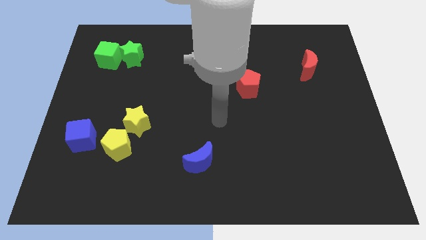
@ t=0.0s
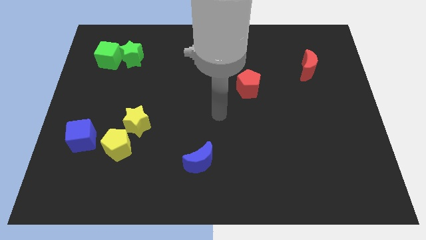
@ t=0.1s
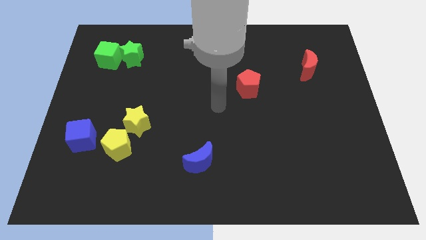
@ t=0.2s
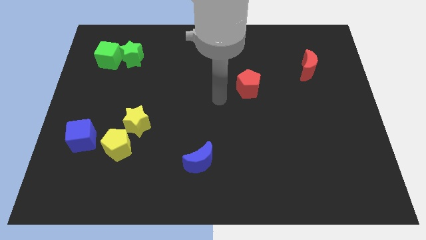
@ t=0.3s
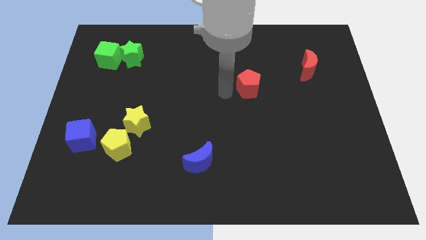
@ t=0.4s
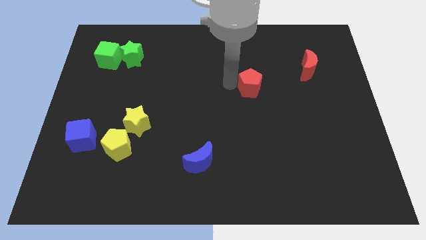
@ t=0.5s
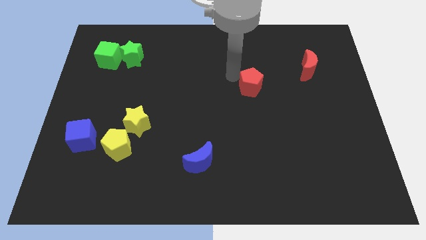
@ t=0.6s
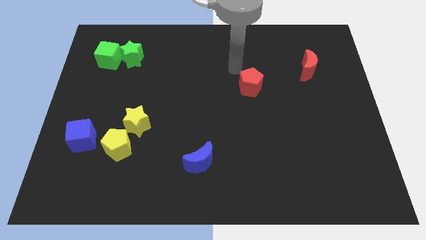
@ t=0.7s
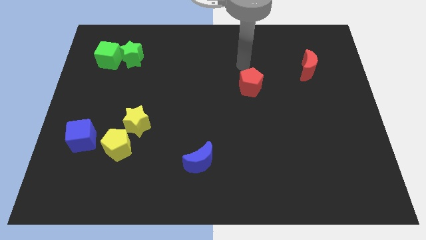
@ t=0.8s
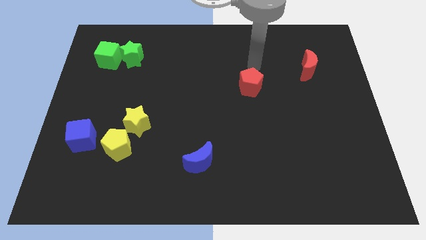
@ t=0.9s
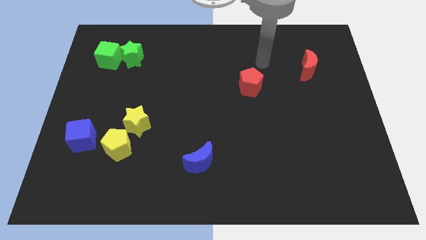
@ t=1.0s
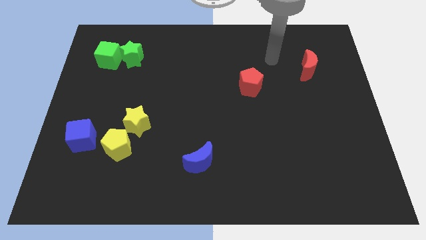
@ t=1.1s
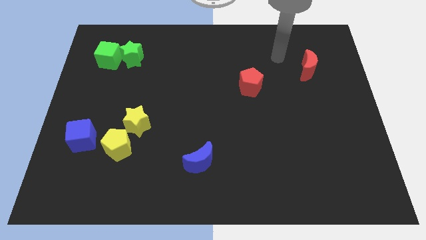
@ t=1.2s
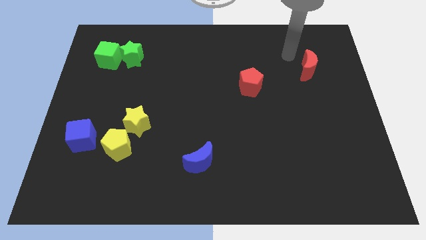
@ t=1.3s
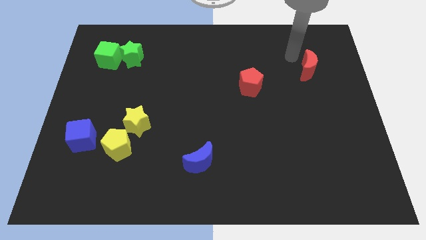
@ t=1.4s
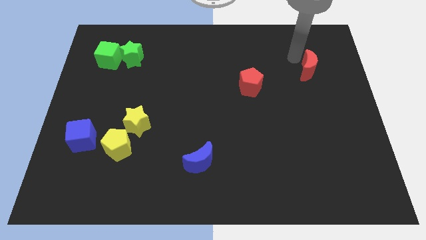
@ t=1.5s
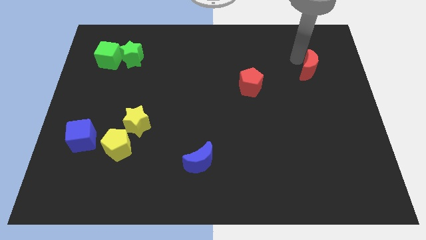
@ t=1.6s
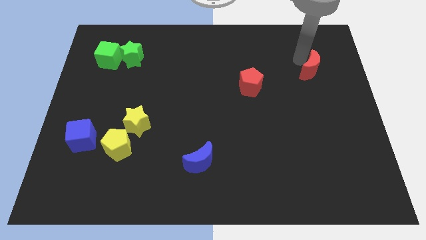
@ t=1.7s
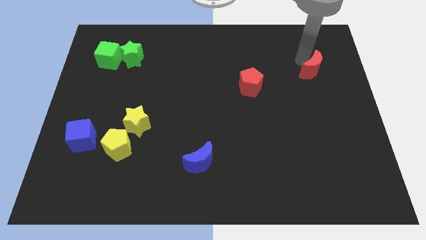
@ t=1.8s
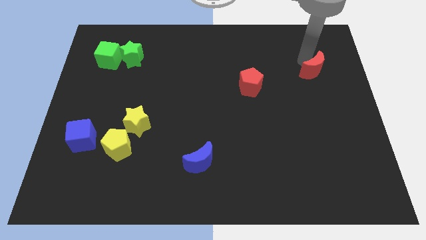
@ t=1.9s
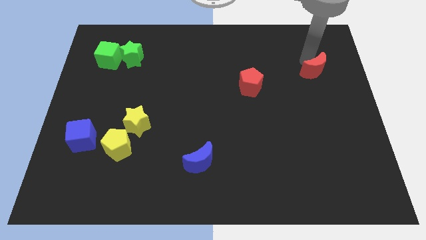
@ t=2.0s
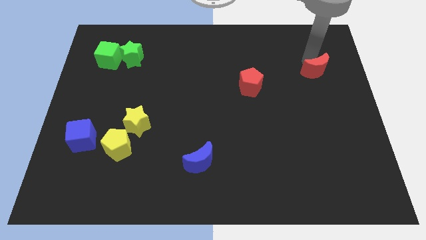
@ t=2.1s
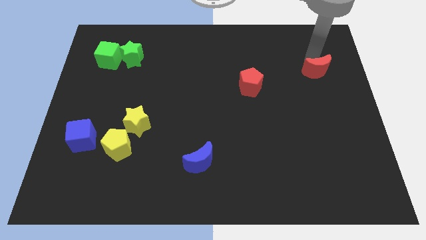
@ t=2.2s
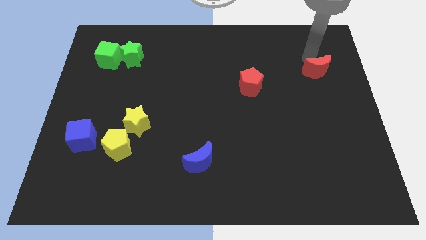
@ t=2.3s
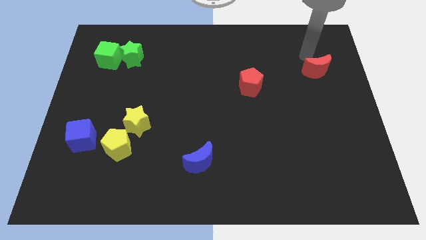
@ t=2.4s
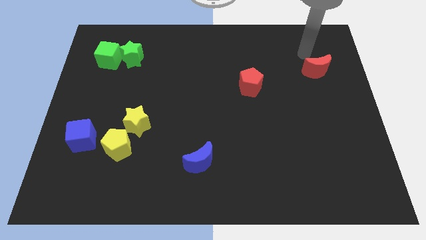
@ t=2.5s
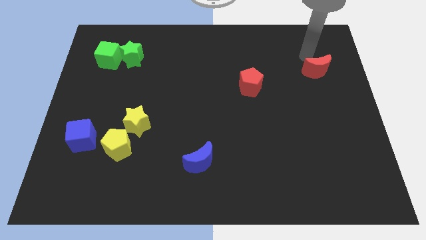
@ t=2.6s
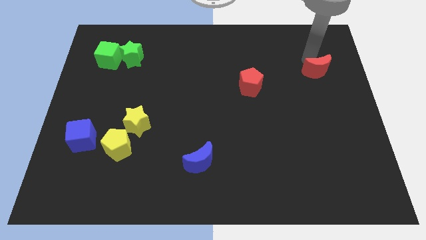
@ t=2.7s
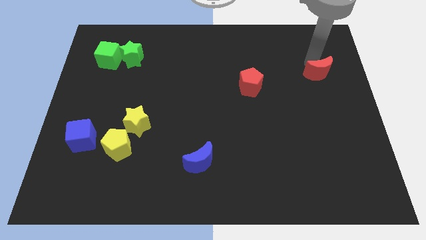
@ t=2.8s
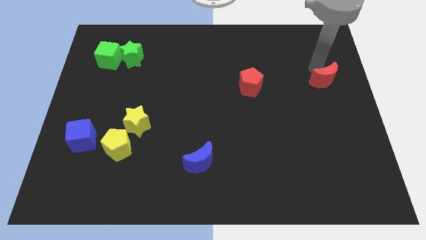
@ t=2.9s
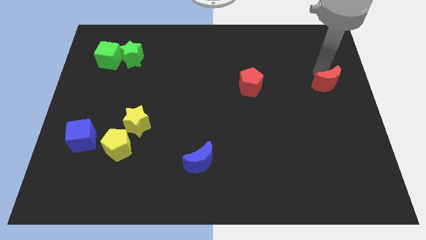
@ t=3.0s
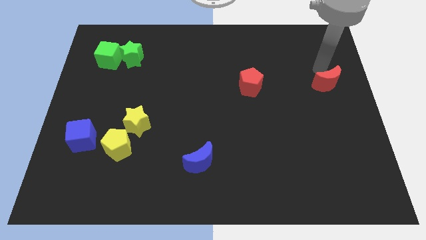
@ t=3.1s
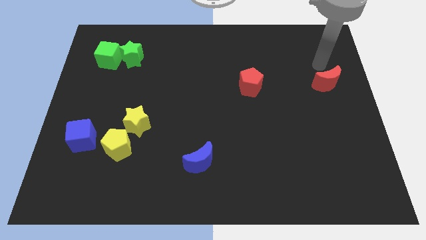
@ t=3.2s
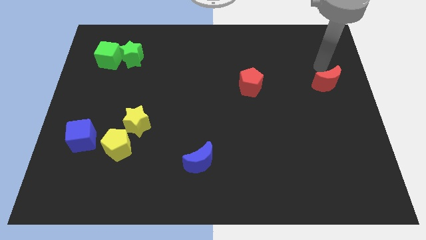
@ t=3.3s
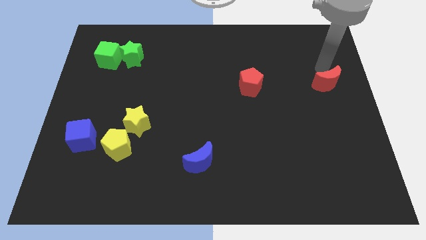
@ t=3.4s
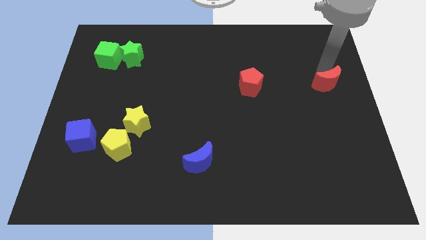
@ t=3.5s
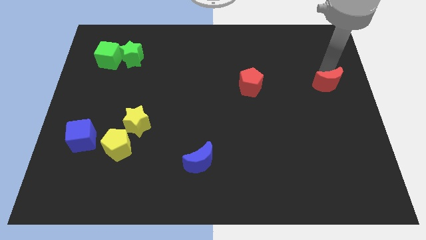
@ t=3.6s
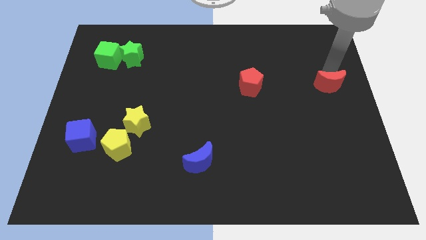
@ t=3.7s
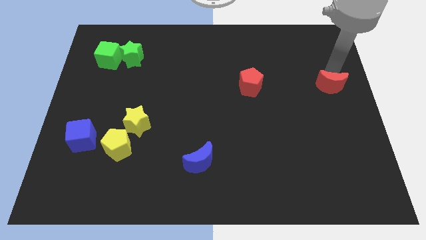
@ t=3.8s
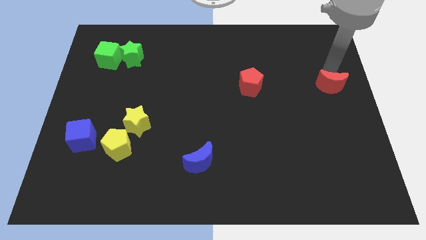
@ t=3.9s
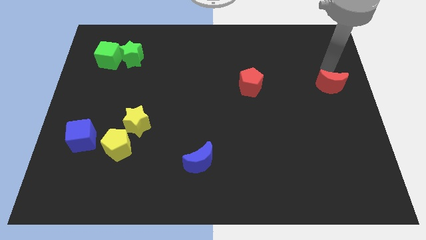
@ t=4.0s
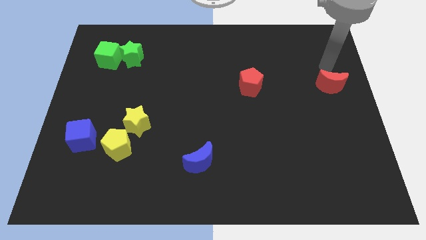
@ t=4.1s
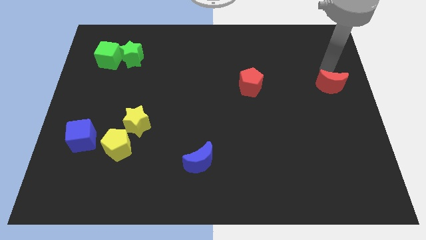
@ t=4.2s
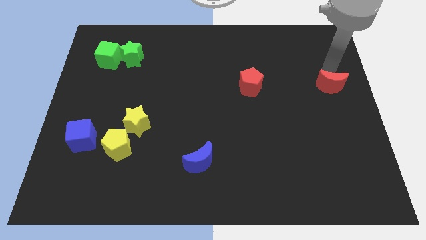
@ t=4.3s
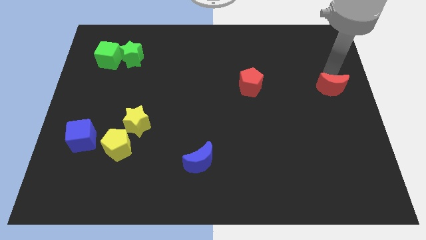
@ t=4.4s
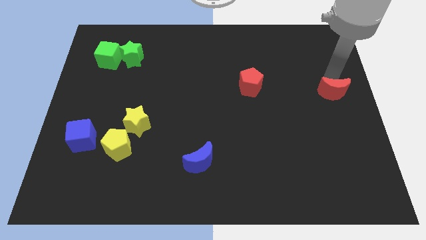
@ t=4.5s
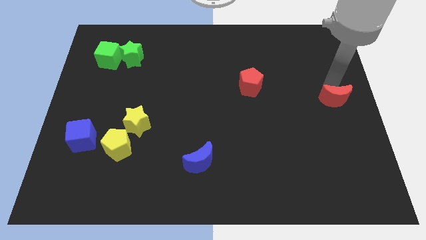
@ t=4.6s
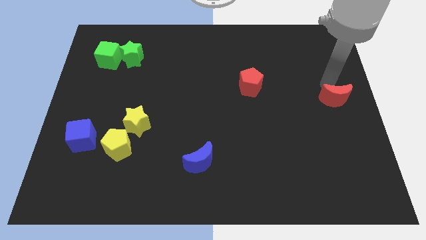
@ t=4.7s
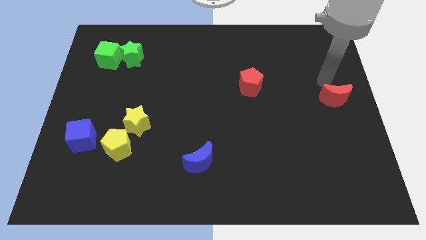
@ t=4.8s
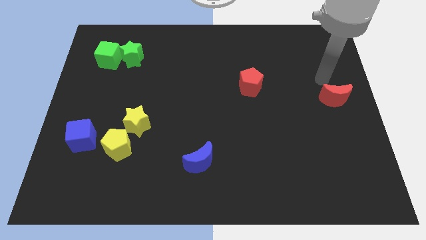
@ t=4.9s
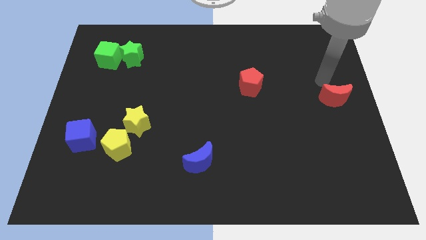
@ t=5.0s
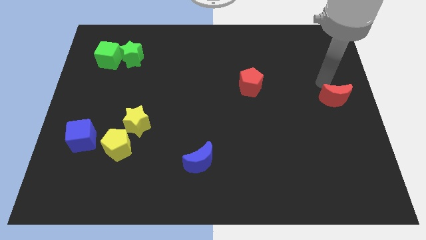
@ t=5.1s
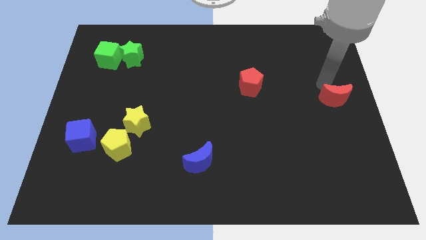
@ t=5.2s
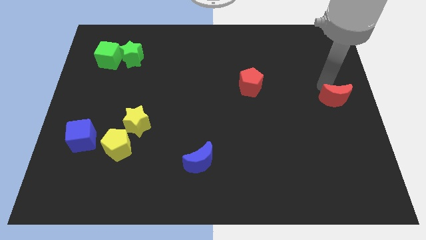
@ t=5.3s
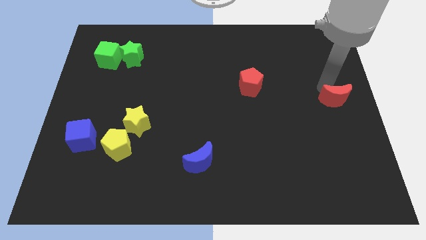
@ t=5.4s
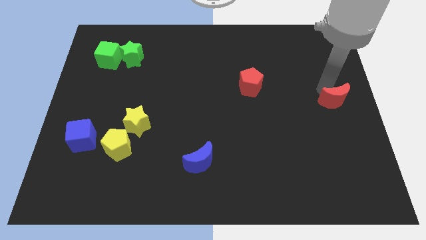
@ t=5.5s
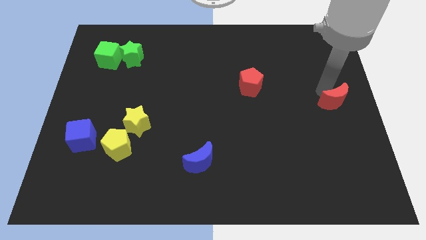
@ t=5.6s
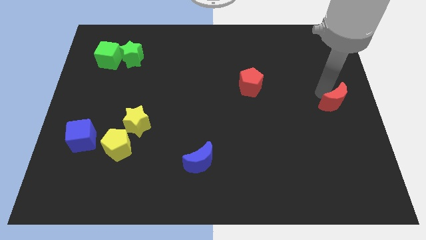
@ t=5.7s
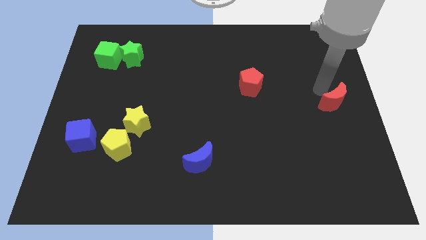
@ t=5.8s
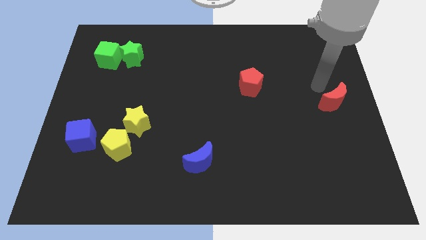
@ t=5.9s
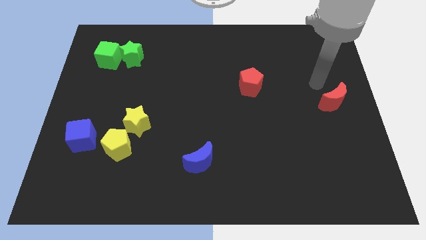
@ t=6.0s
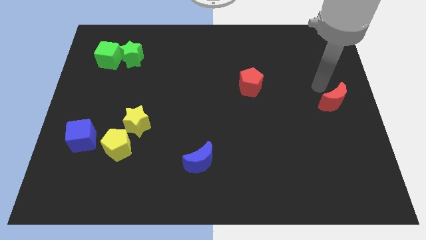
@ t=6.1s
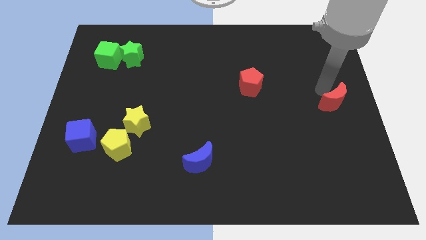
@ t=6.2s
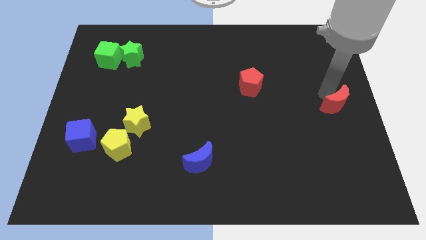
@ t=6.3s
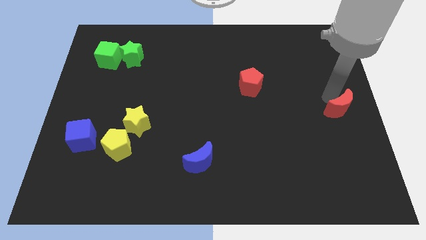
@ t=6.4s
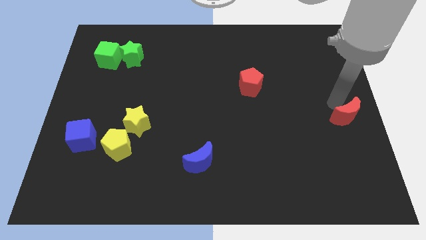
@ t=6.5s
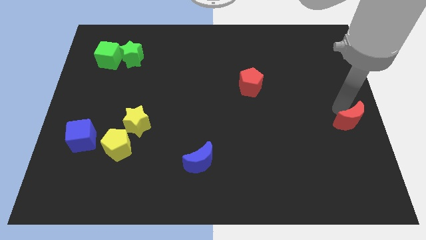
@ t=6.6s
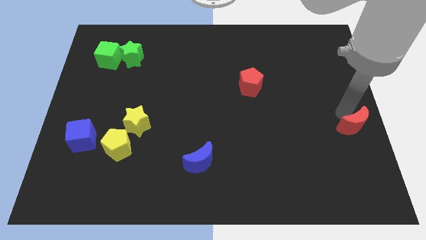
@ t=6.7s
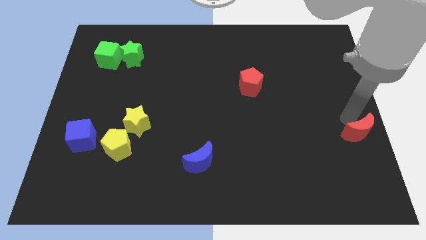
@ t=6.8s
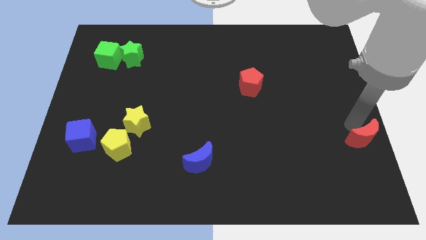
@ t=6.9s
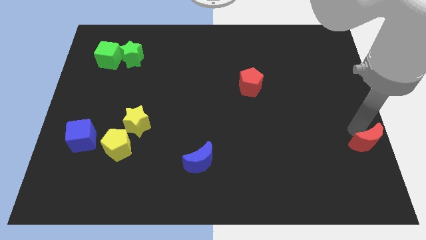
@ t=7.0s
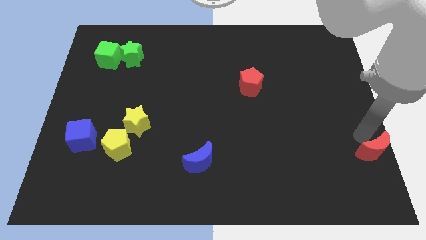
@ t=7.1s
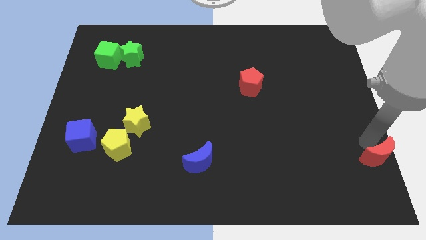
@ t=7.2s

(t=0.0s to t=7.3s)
put the red moon to the lower right corner
